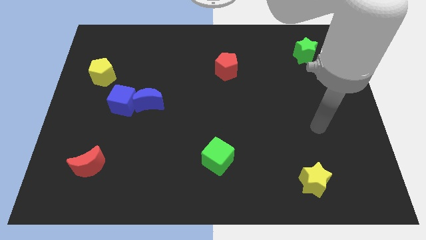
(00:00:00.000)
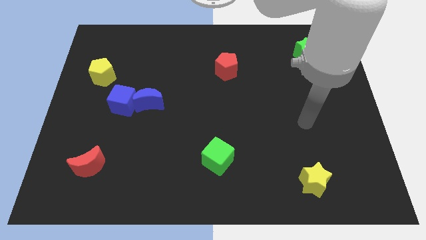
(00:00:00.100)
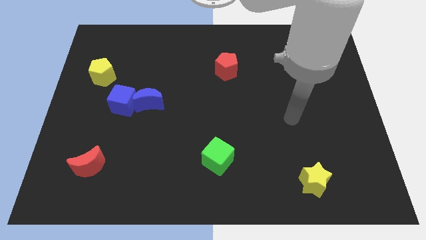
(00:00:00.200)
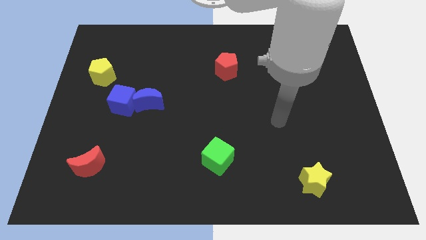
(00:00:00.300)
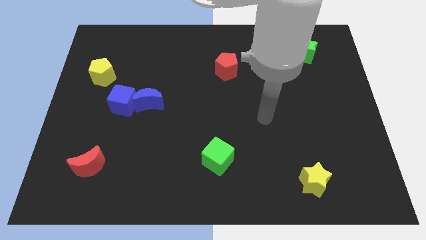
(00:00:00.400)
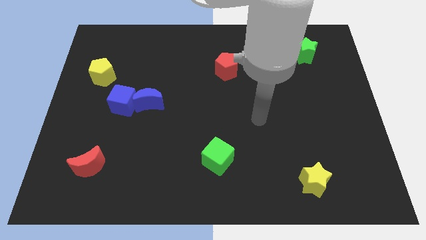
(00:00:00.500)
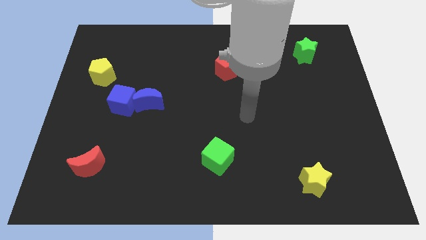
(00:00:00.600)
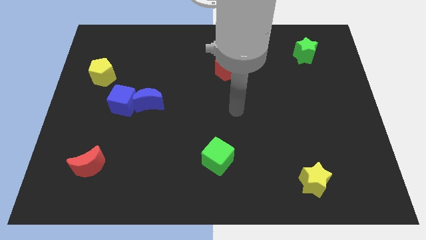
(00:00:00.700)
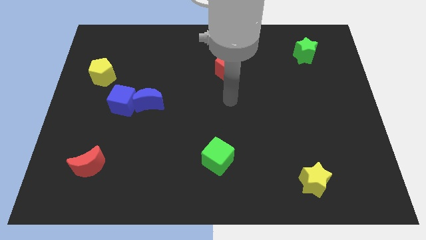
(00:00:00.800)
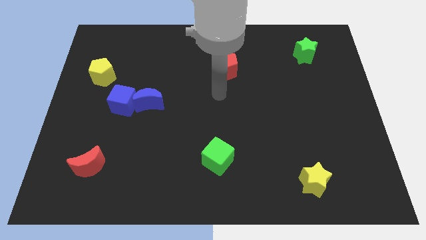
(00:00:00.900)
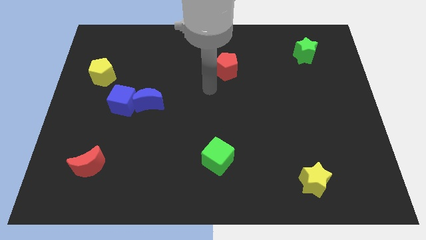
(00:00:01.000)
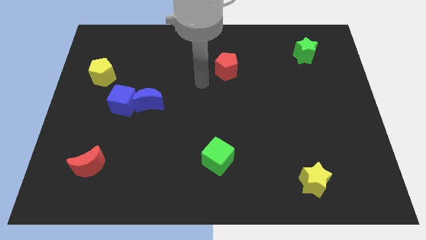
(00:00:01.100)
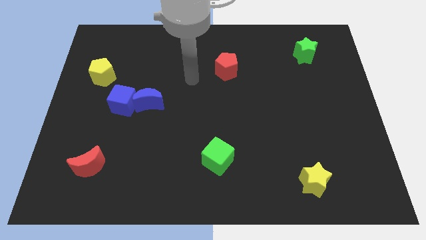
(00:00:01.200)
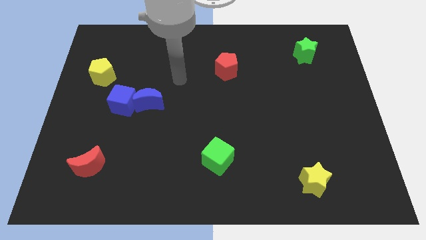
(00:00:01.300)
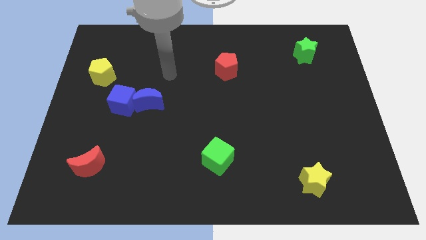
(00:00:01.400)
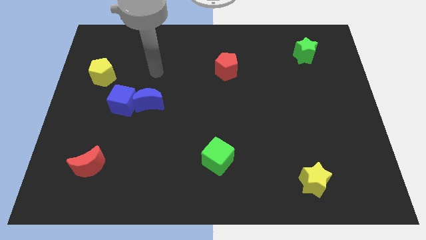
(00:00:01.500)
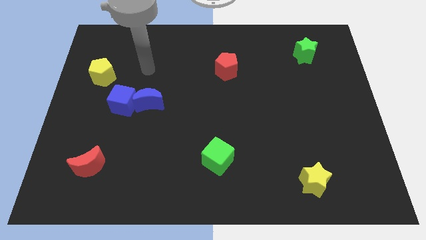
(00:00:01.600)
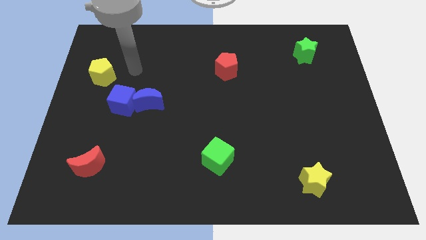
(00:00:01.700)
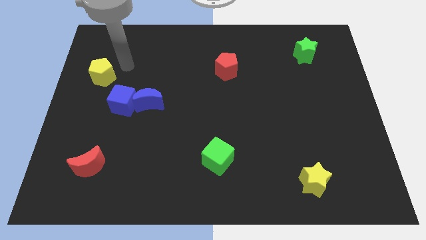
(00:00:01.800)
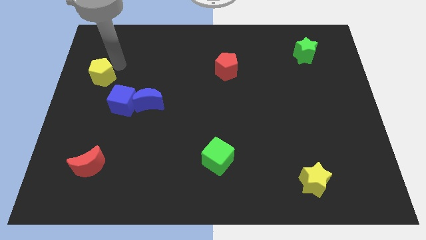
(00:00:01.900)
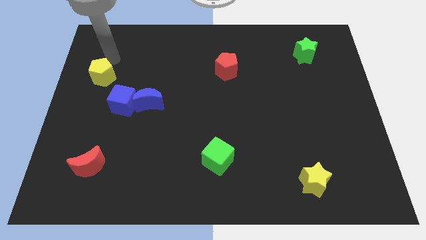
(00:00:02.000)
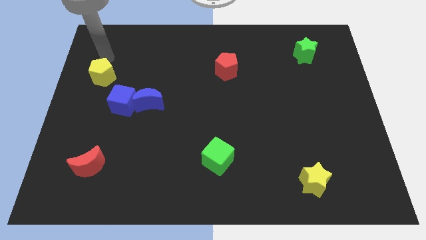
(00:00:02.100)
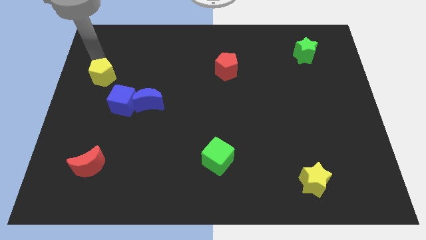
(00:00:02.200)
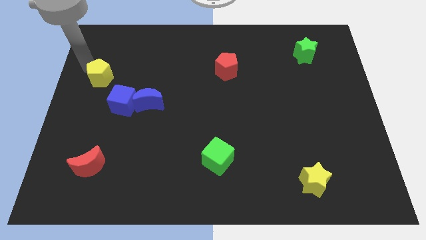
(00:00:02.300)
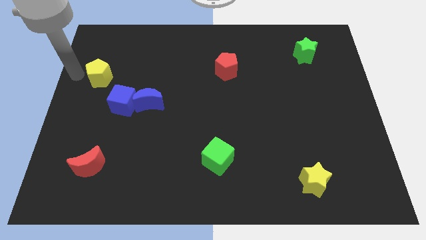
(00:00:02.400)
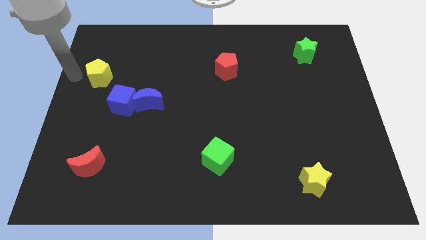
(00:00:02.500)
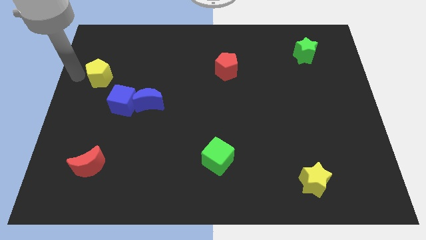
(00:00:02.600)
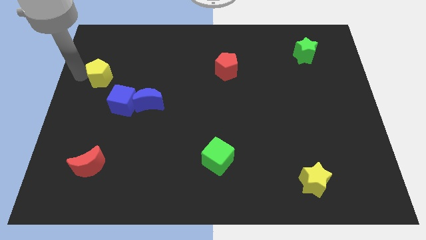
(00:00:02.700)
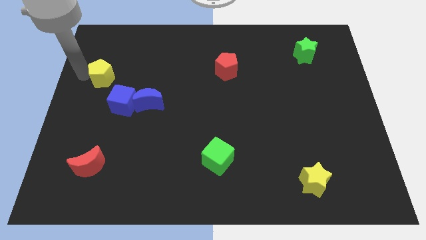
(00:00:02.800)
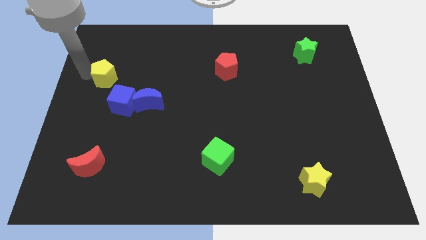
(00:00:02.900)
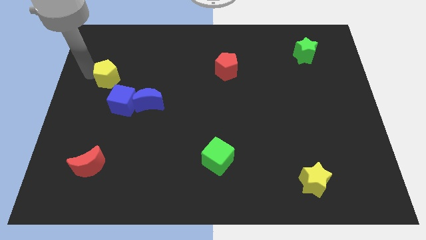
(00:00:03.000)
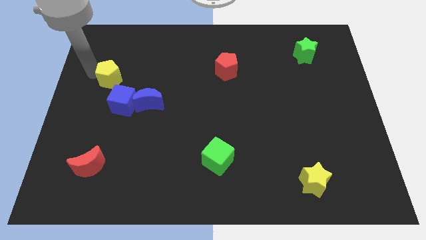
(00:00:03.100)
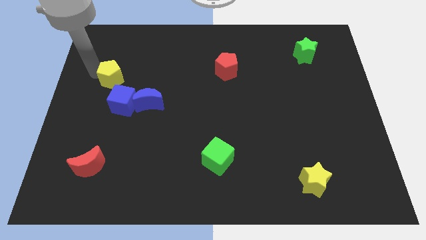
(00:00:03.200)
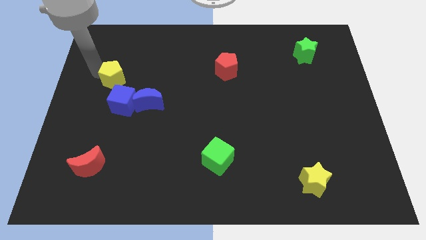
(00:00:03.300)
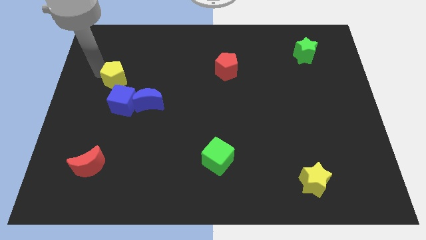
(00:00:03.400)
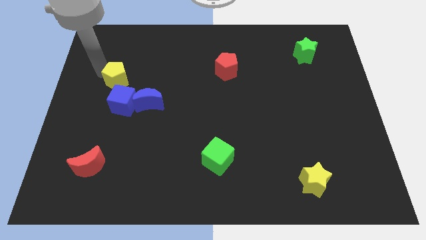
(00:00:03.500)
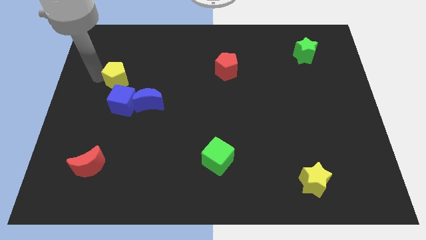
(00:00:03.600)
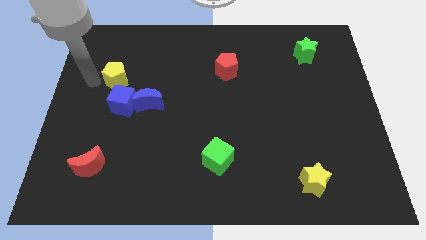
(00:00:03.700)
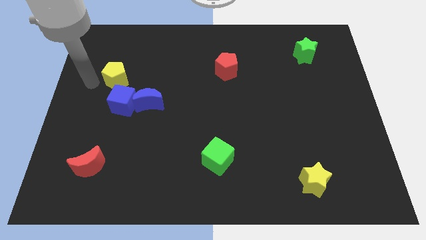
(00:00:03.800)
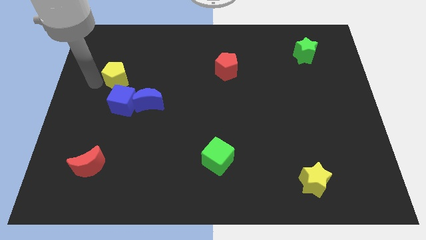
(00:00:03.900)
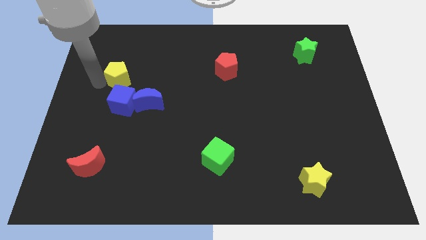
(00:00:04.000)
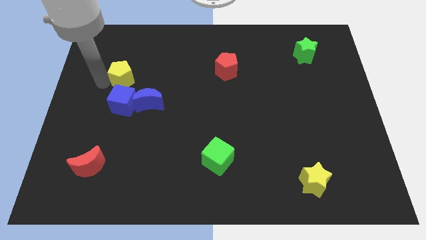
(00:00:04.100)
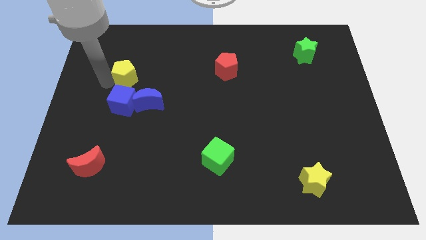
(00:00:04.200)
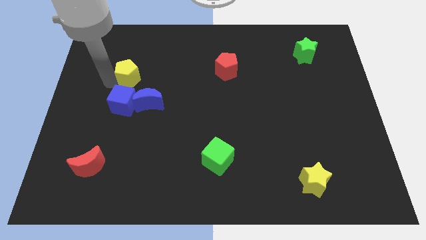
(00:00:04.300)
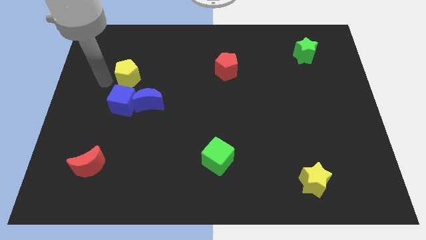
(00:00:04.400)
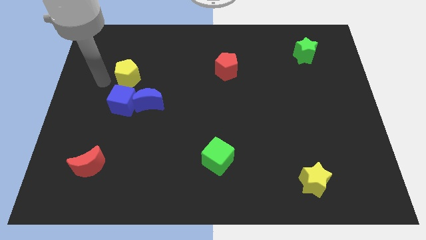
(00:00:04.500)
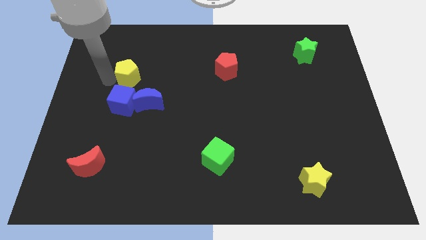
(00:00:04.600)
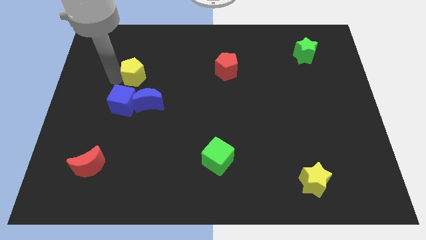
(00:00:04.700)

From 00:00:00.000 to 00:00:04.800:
put the yellow pentagon above the blue moon

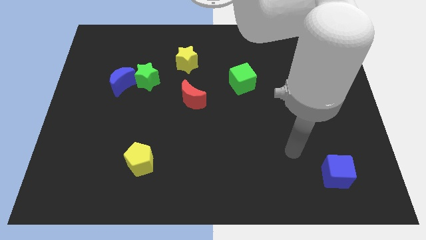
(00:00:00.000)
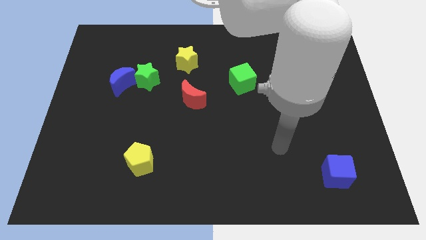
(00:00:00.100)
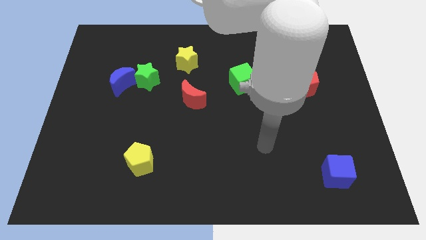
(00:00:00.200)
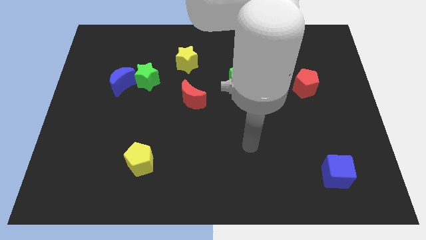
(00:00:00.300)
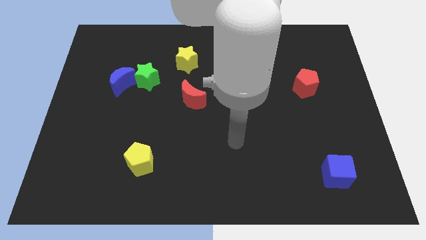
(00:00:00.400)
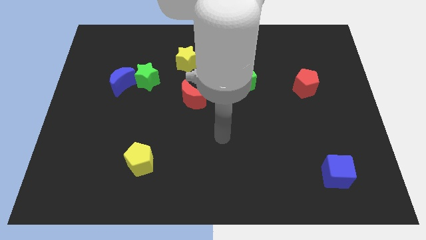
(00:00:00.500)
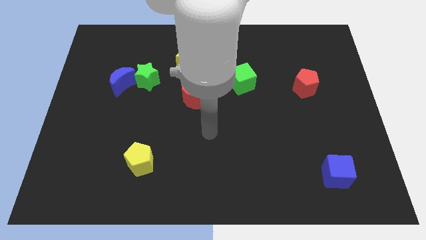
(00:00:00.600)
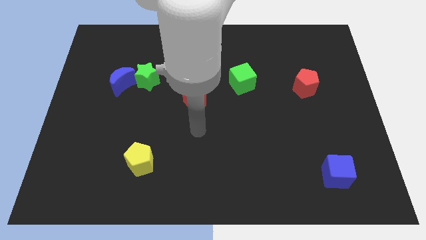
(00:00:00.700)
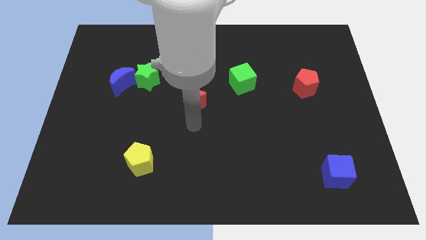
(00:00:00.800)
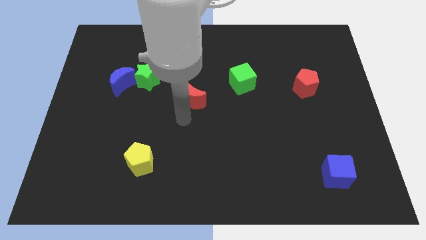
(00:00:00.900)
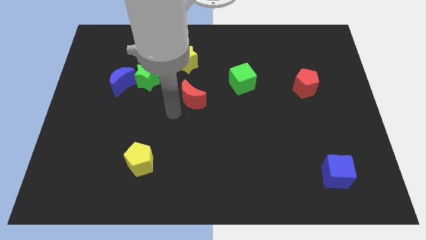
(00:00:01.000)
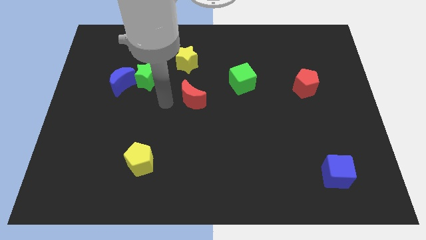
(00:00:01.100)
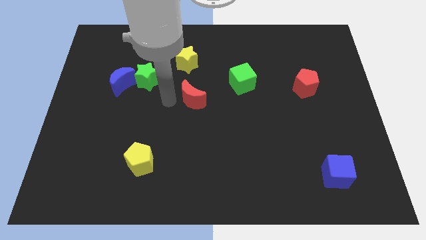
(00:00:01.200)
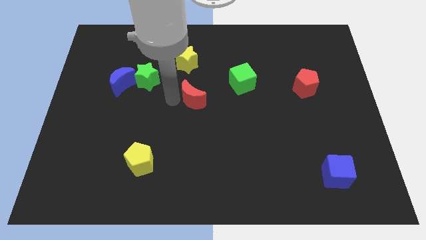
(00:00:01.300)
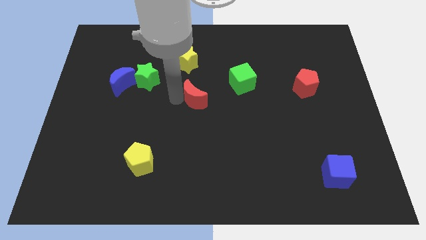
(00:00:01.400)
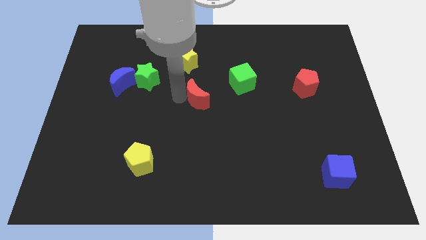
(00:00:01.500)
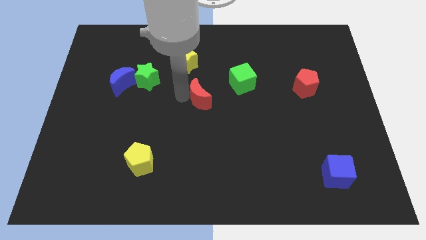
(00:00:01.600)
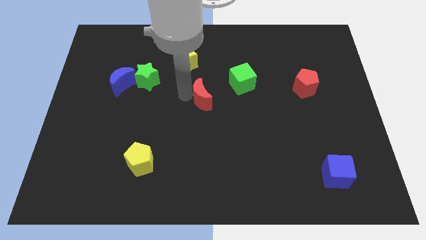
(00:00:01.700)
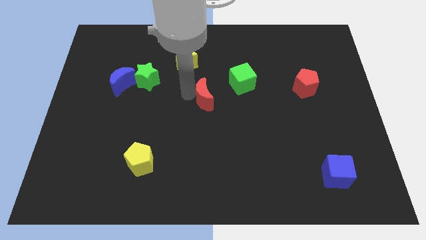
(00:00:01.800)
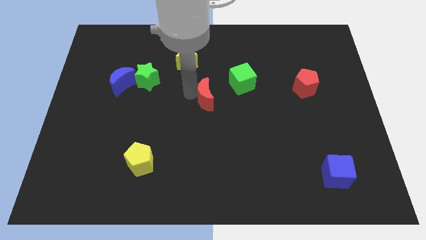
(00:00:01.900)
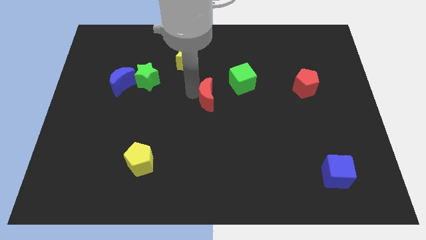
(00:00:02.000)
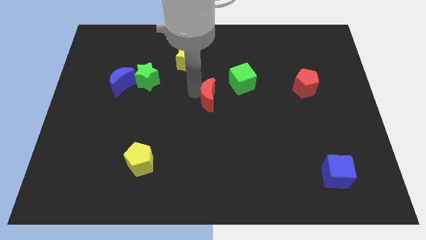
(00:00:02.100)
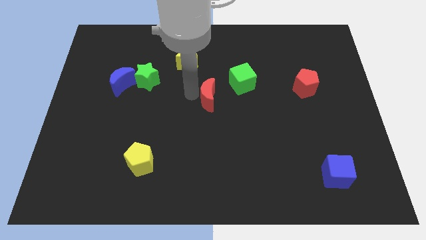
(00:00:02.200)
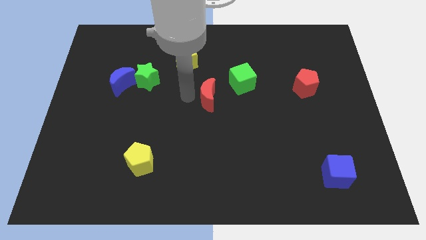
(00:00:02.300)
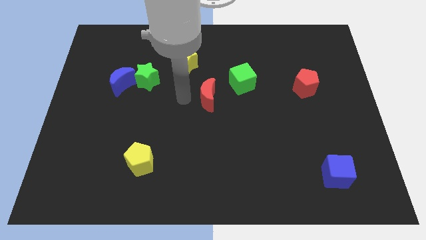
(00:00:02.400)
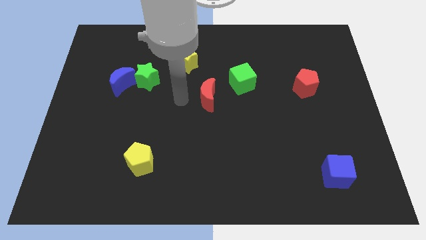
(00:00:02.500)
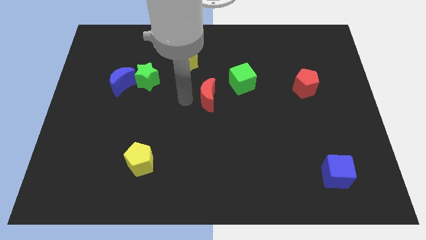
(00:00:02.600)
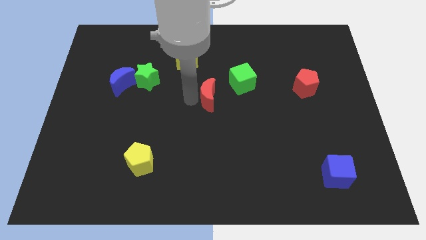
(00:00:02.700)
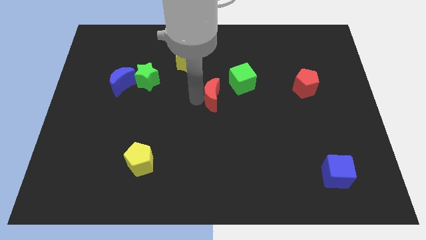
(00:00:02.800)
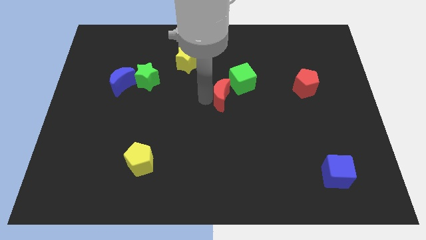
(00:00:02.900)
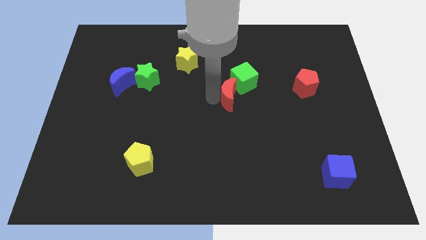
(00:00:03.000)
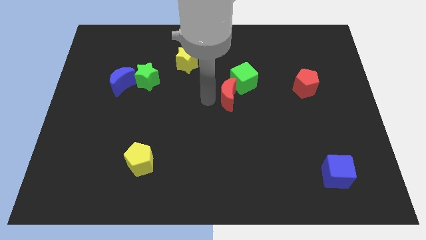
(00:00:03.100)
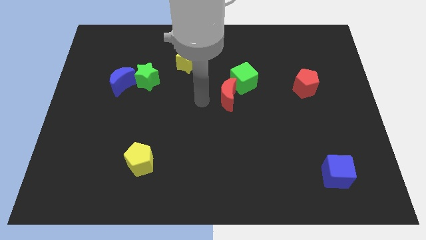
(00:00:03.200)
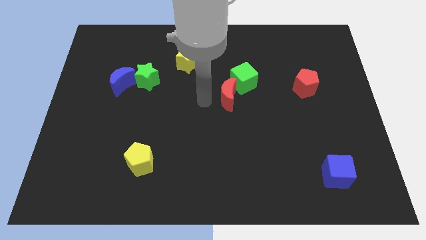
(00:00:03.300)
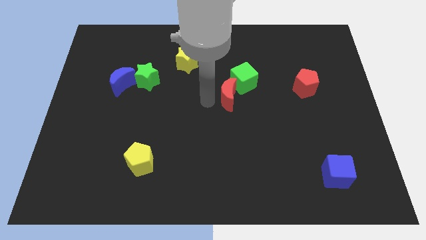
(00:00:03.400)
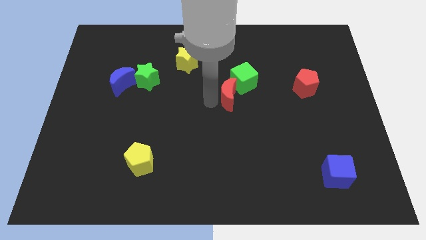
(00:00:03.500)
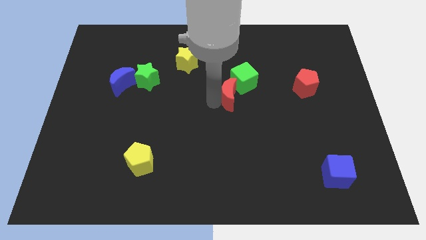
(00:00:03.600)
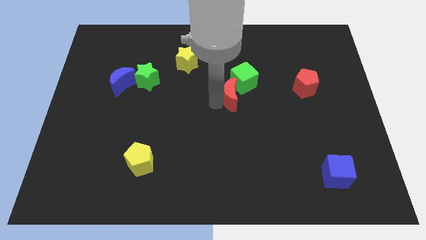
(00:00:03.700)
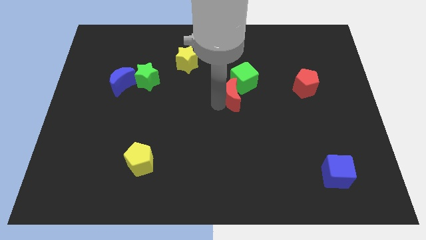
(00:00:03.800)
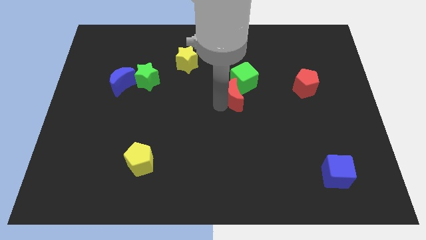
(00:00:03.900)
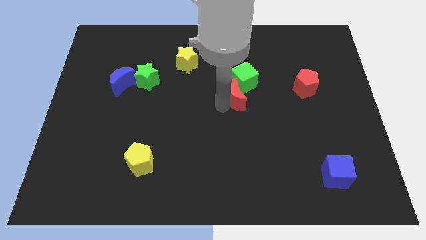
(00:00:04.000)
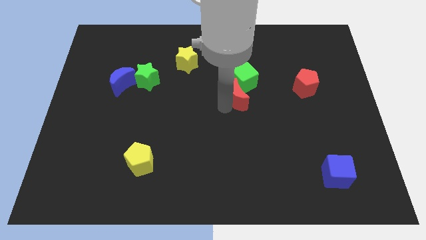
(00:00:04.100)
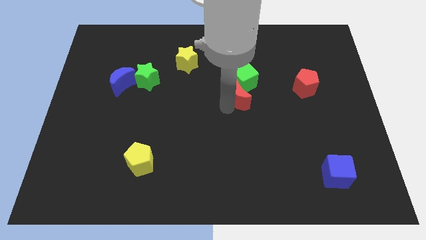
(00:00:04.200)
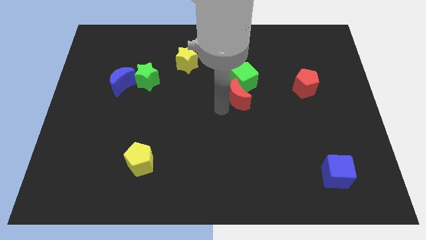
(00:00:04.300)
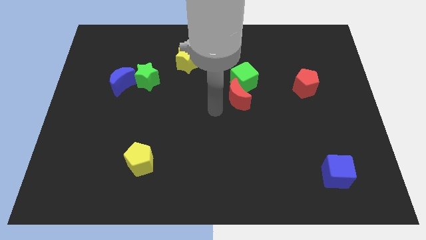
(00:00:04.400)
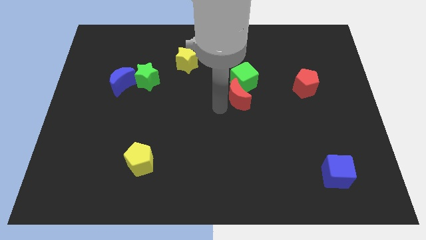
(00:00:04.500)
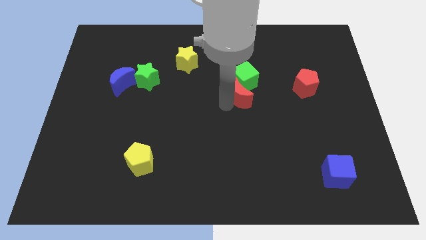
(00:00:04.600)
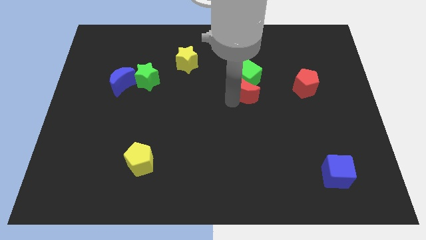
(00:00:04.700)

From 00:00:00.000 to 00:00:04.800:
slide the red moon to the left side of the red pentagon
